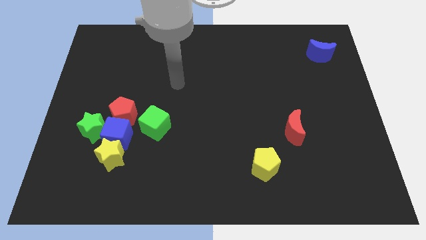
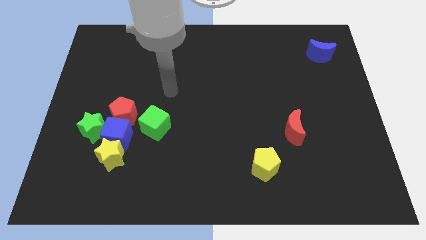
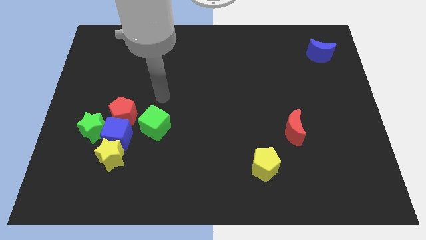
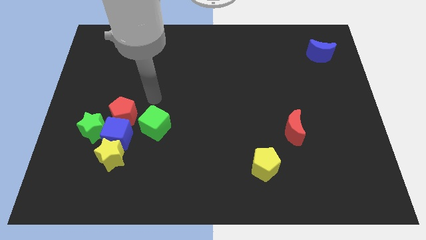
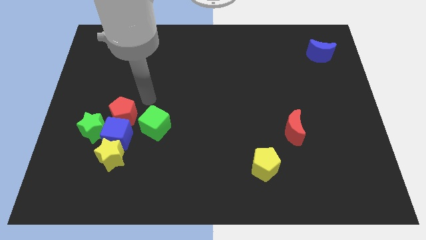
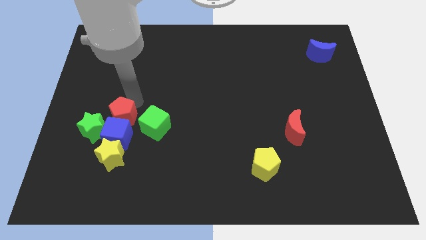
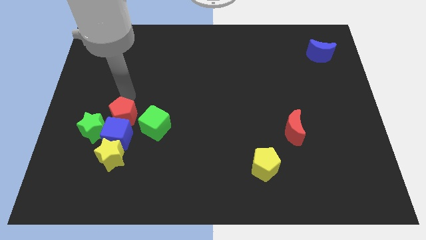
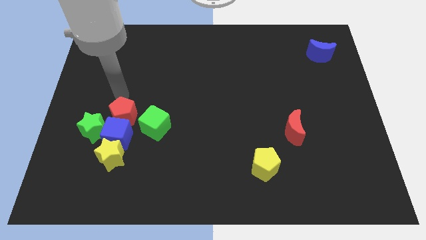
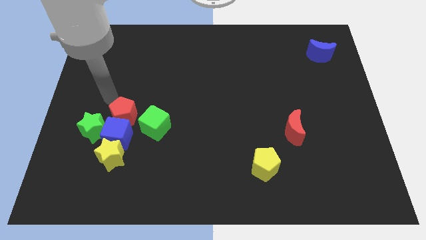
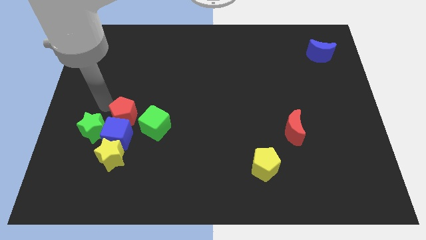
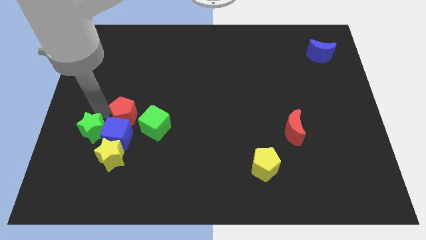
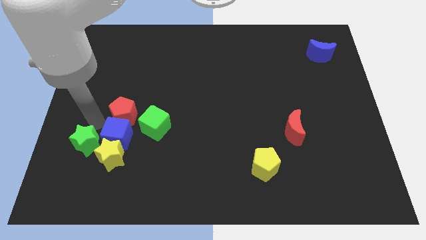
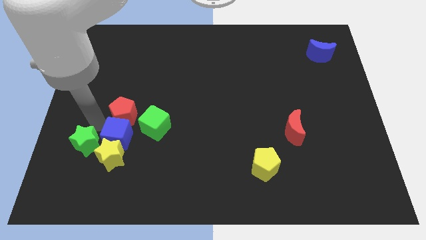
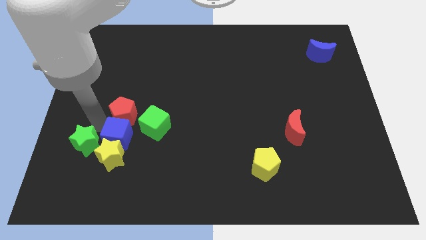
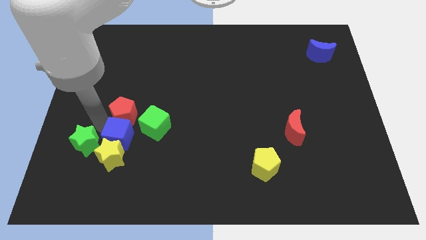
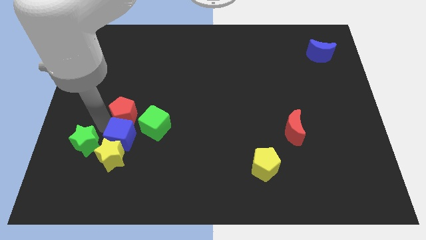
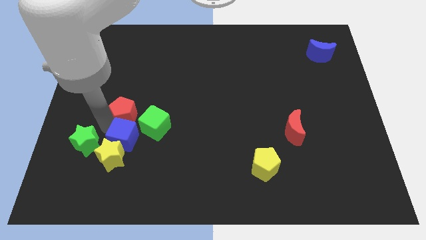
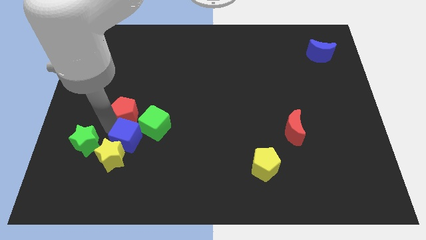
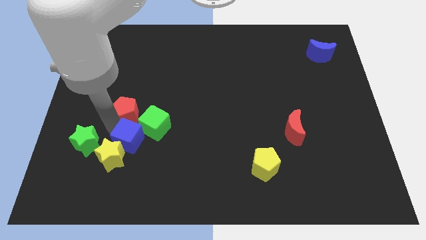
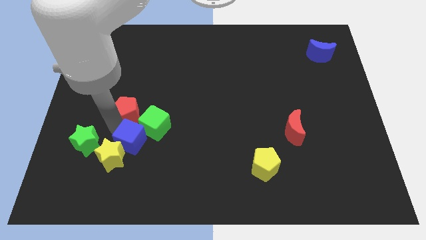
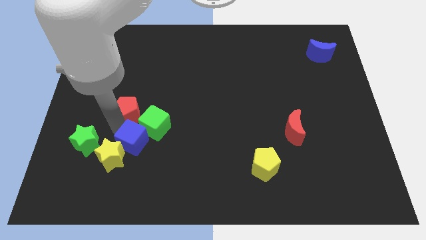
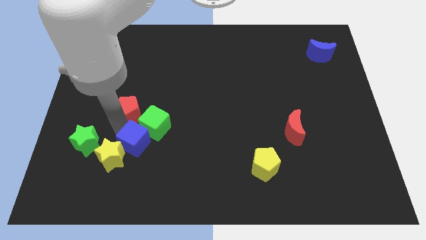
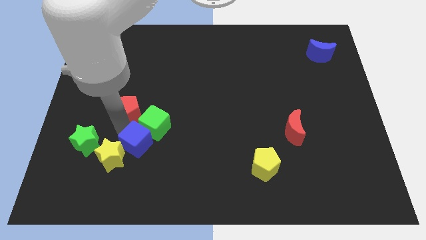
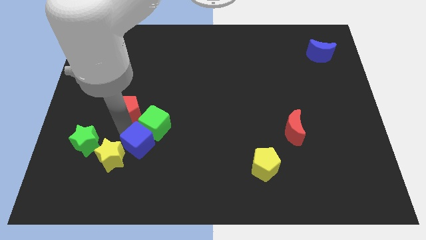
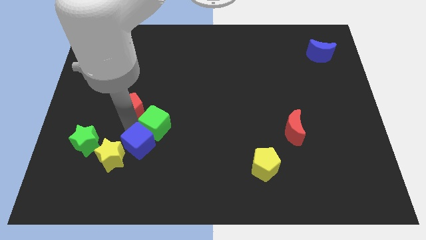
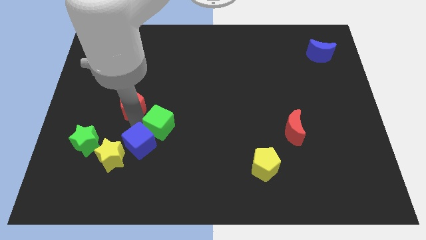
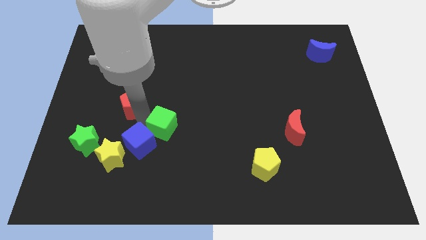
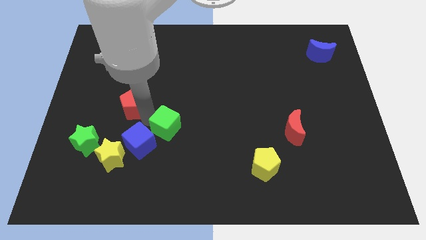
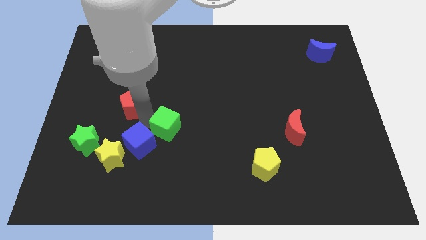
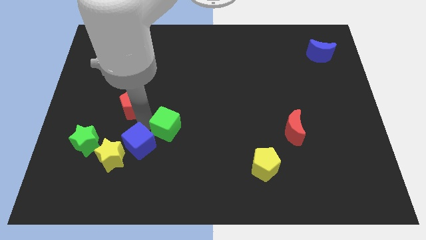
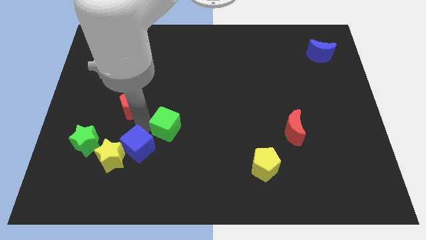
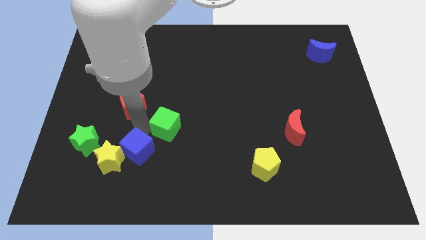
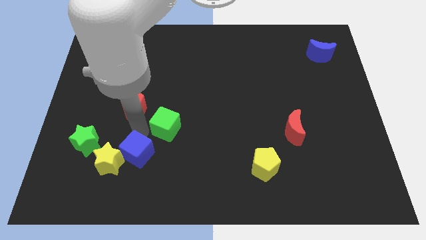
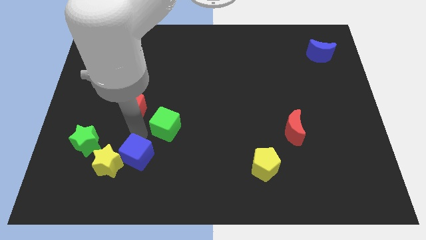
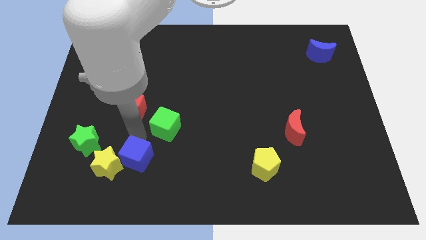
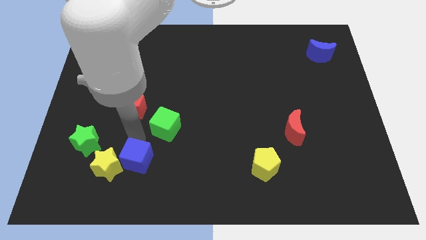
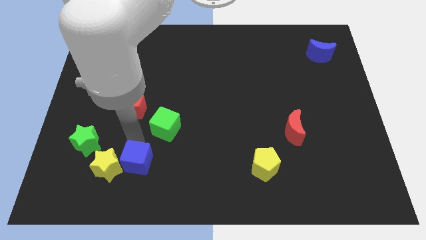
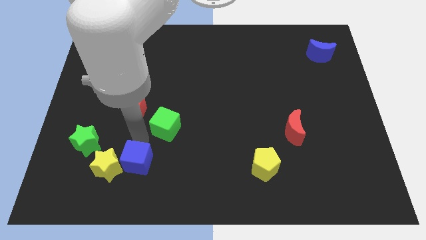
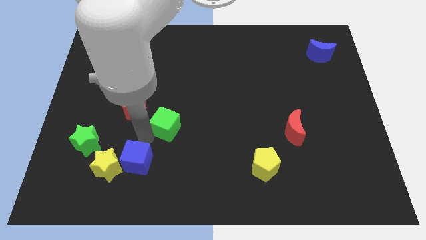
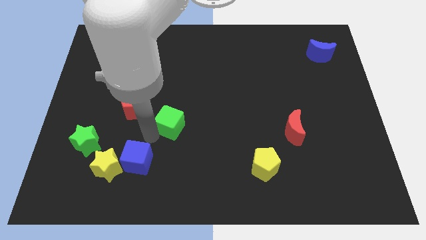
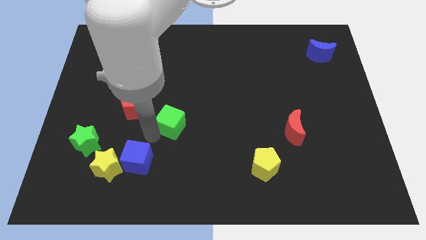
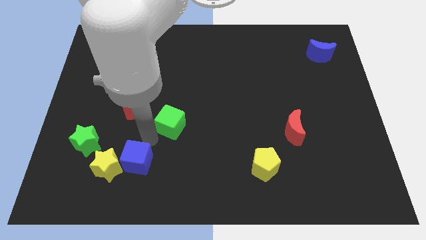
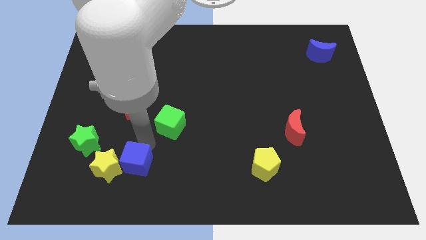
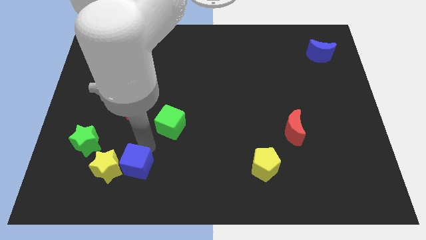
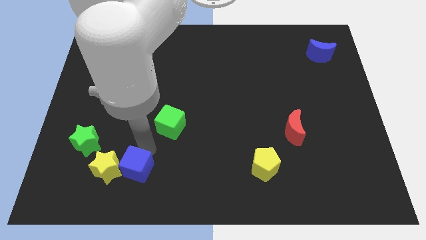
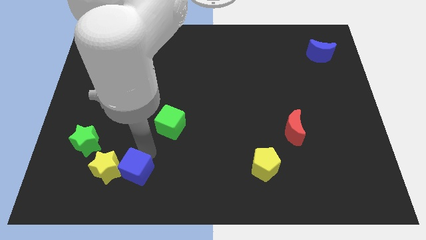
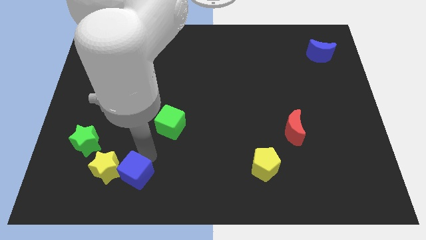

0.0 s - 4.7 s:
separate the blue cube from the group

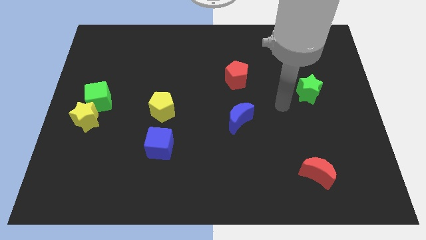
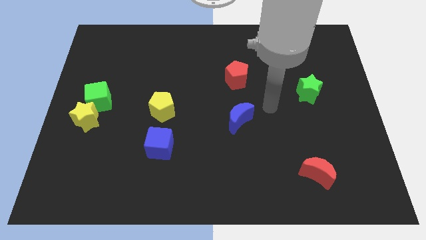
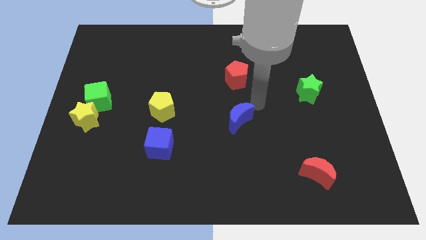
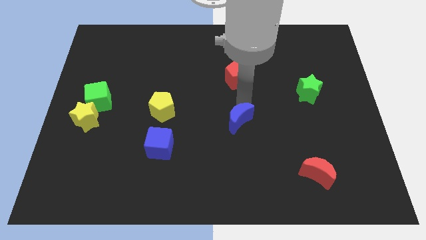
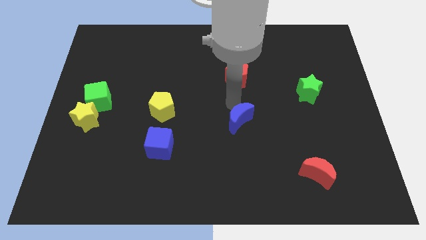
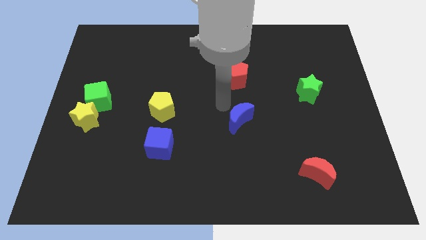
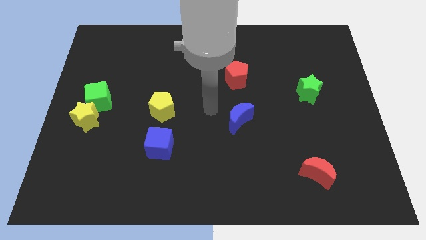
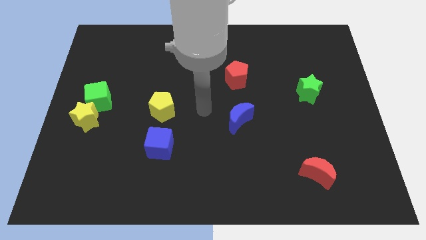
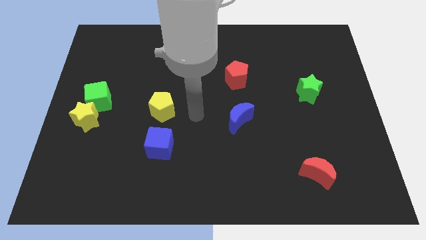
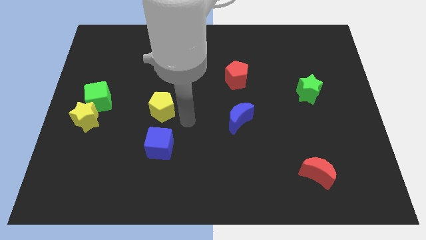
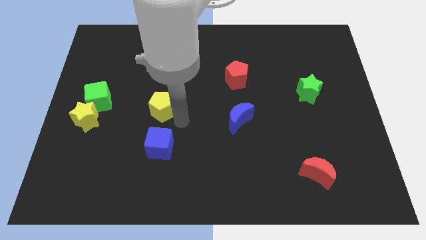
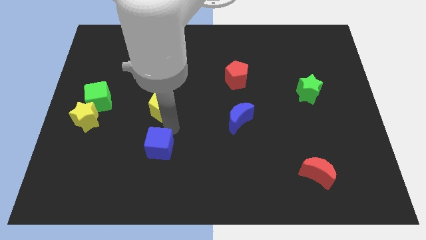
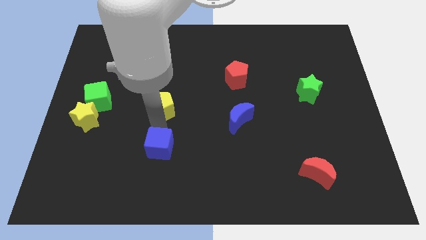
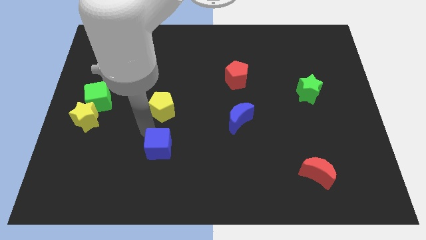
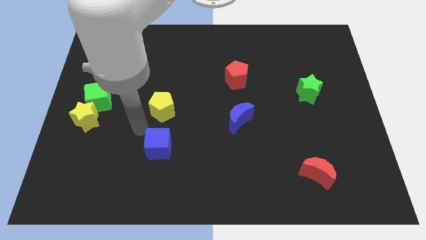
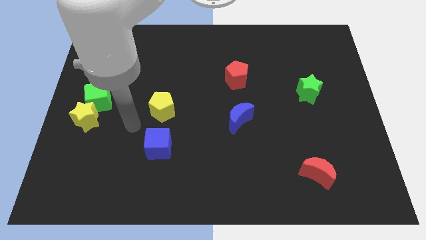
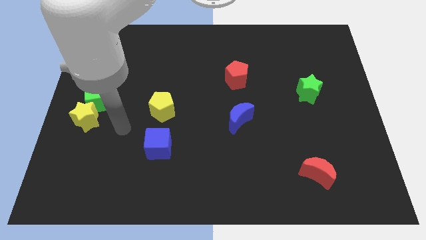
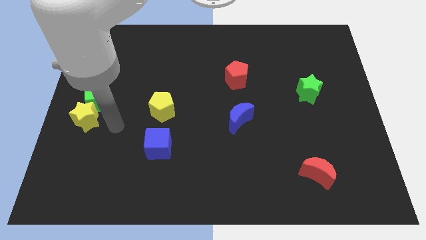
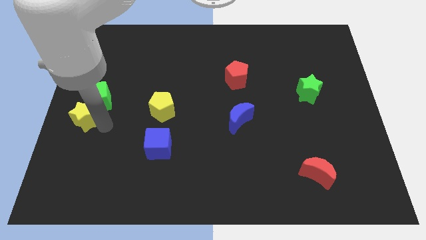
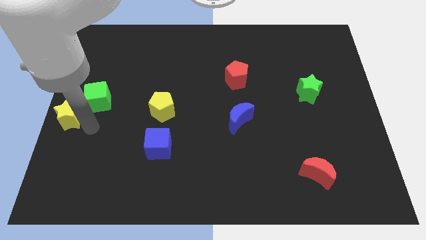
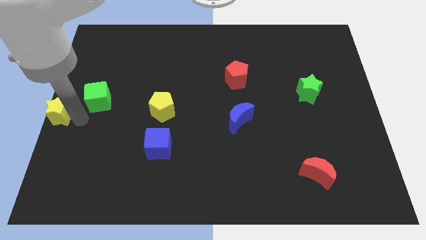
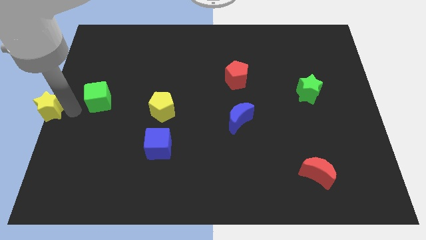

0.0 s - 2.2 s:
pull the green cube apart from the yellow star

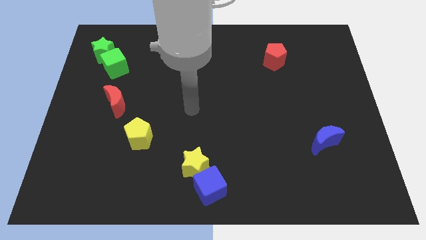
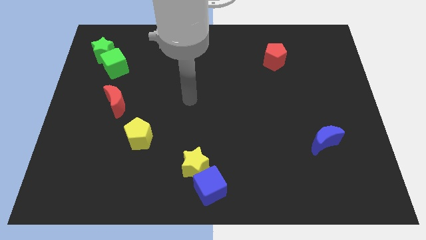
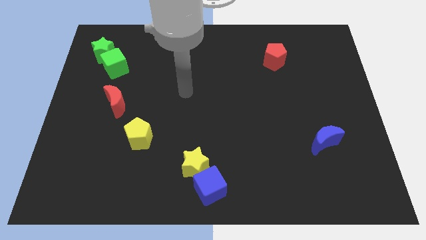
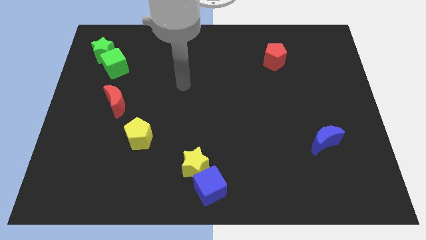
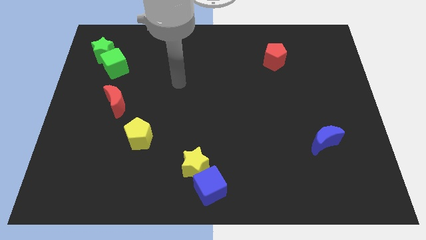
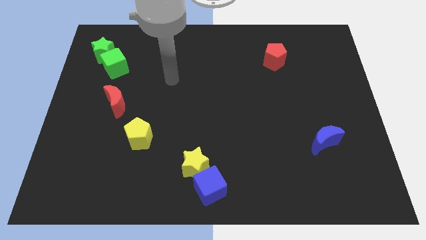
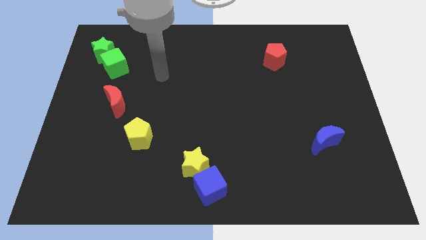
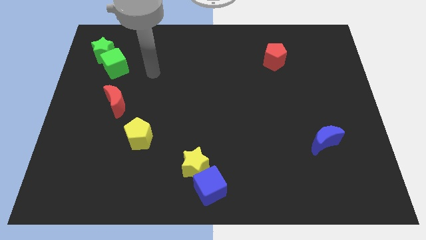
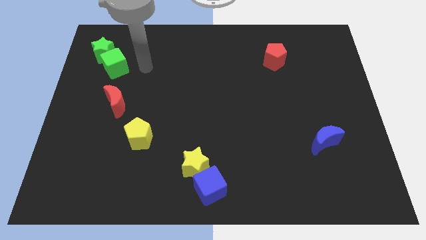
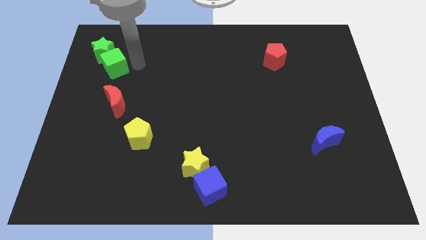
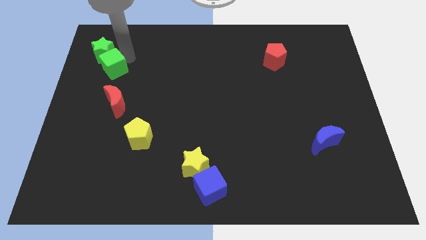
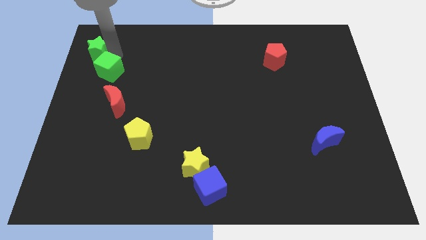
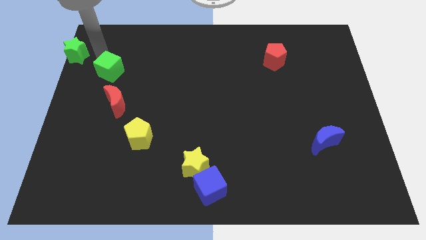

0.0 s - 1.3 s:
pull the green cube apart from the green star

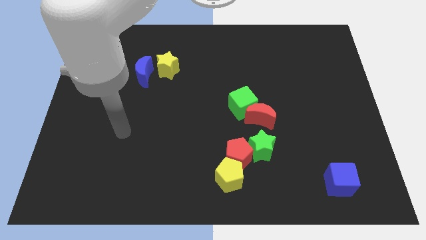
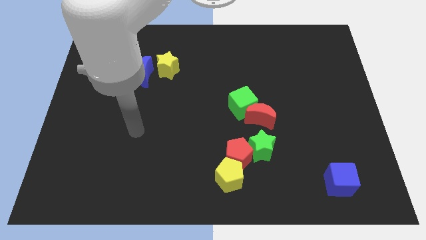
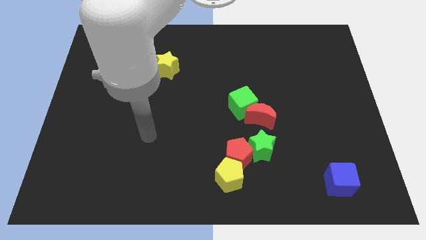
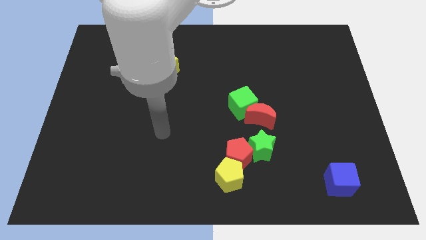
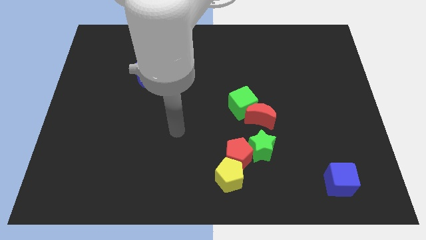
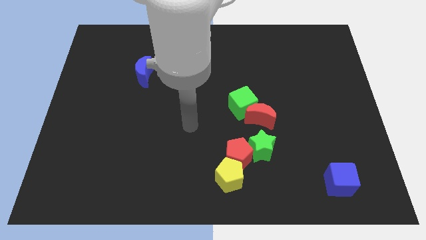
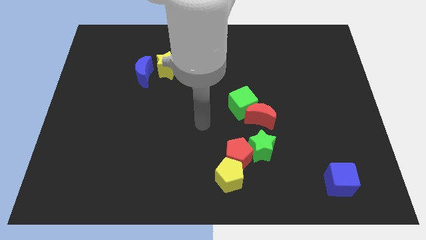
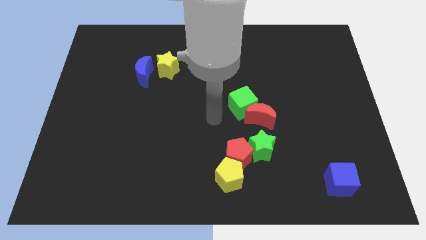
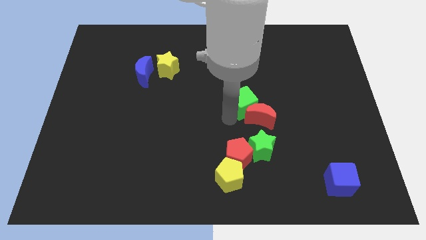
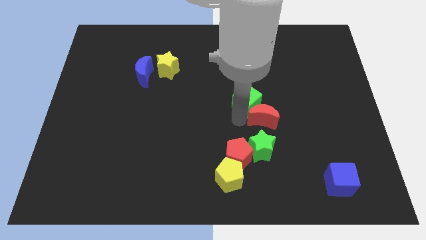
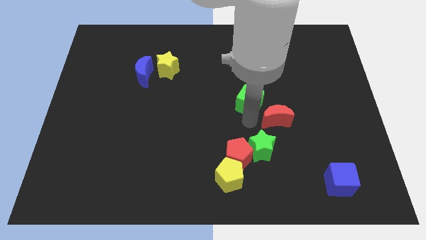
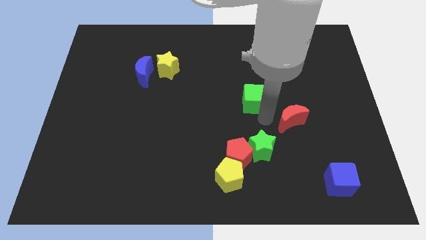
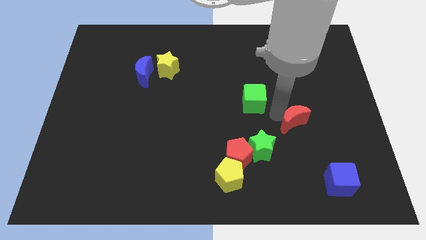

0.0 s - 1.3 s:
separate the green cube from the red moon
